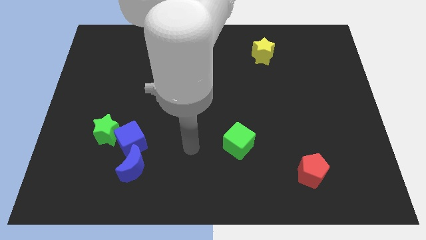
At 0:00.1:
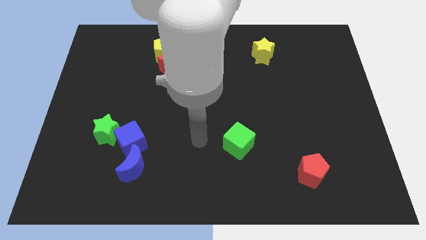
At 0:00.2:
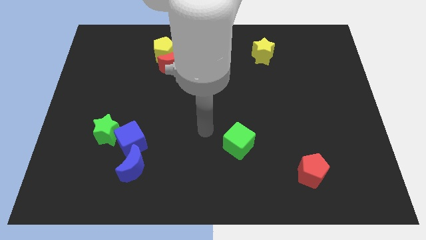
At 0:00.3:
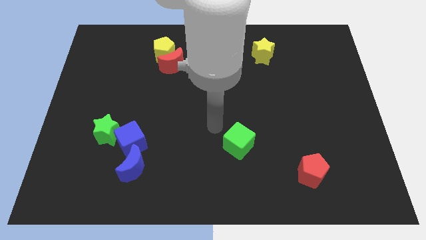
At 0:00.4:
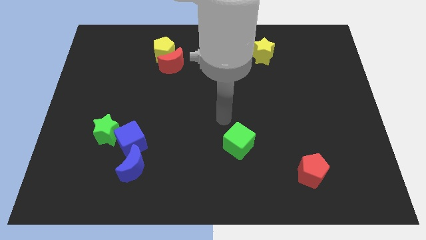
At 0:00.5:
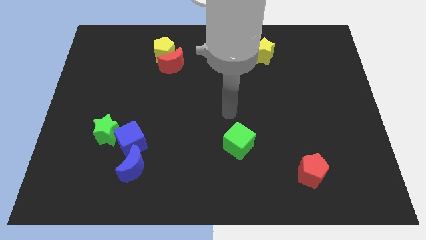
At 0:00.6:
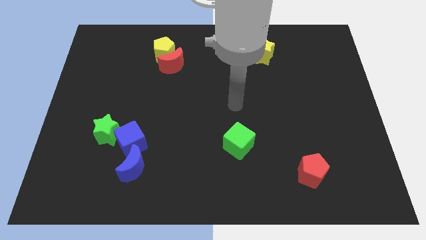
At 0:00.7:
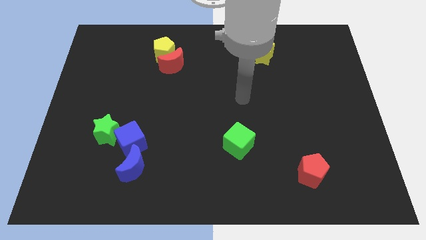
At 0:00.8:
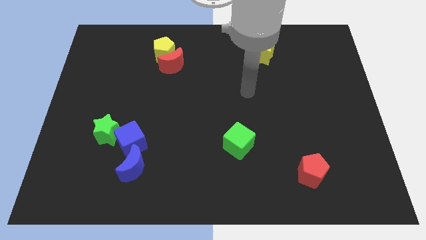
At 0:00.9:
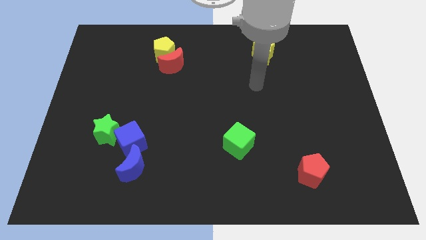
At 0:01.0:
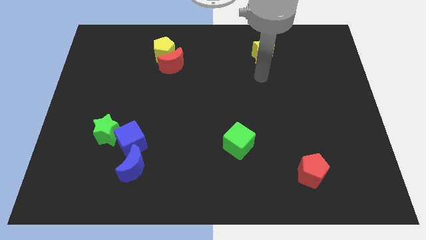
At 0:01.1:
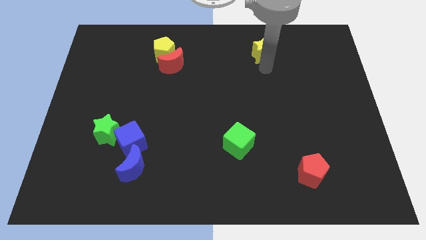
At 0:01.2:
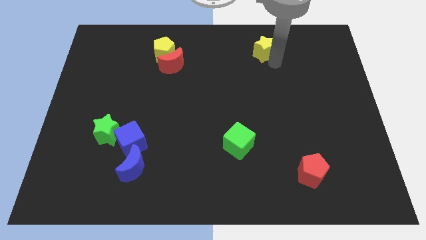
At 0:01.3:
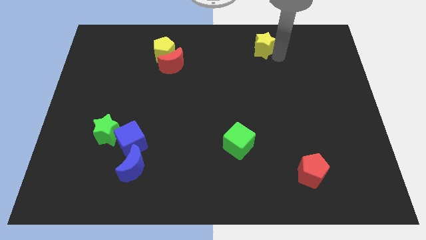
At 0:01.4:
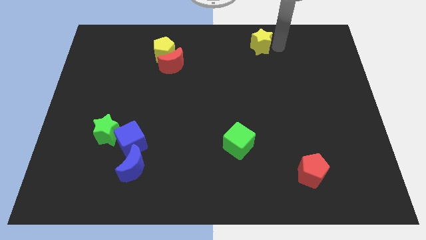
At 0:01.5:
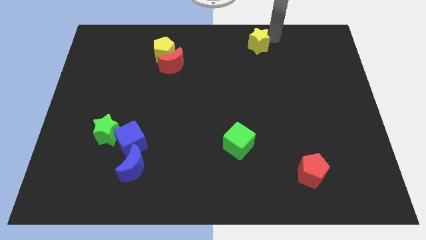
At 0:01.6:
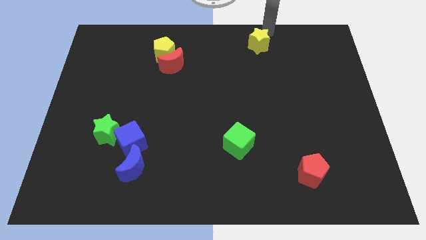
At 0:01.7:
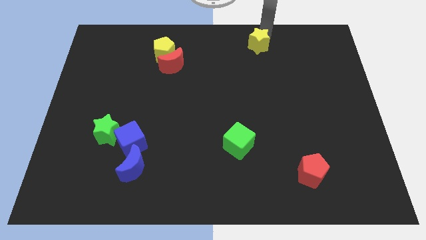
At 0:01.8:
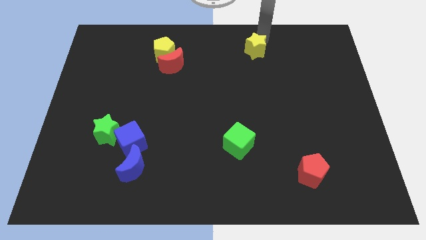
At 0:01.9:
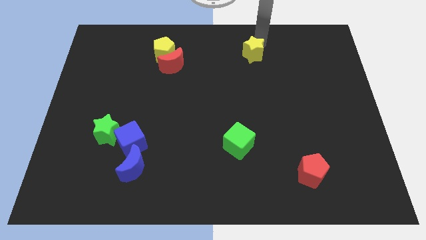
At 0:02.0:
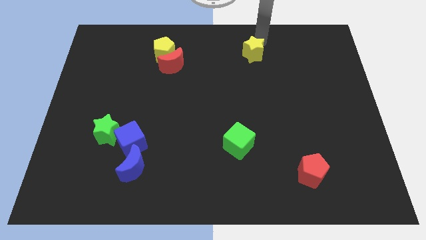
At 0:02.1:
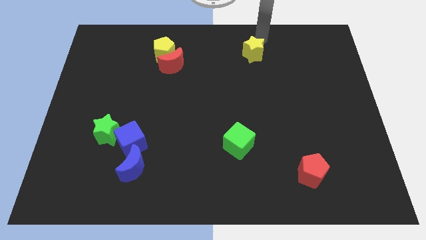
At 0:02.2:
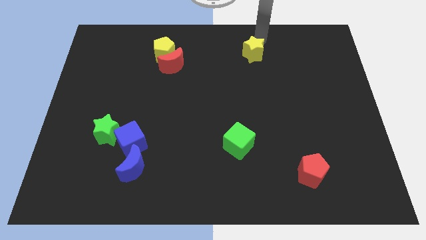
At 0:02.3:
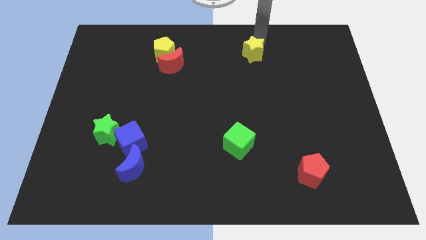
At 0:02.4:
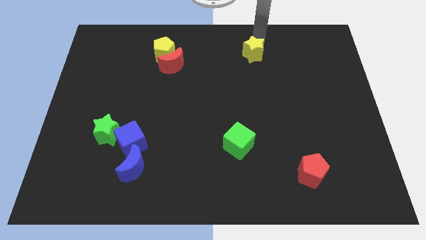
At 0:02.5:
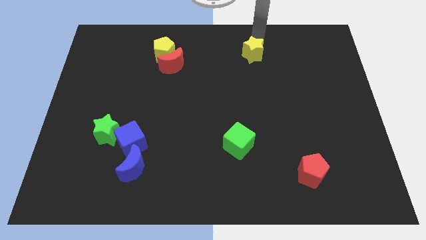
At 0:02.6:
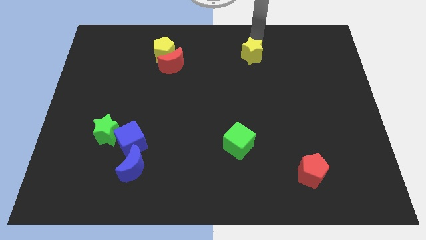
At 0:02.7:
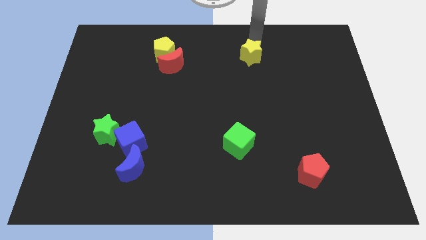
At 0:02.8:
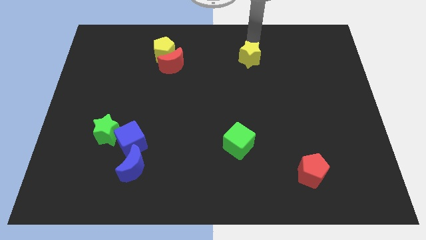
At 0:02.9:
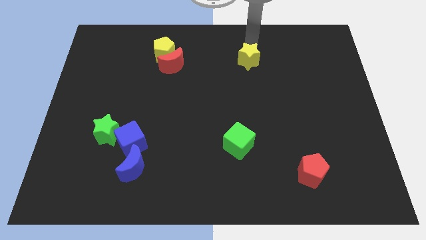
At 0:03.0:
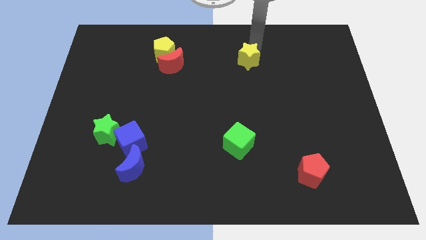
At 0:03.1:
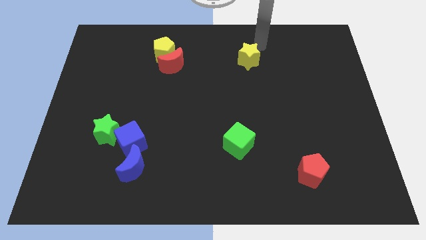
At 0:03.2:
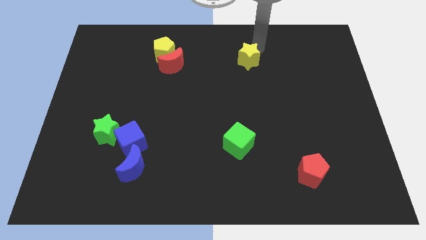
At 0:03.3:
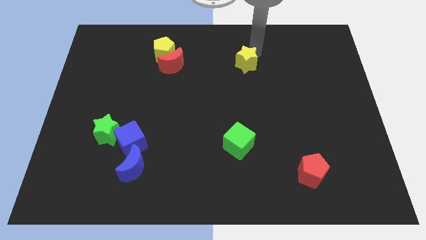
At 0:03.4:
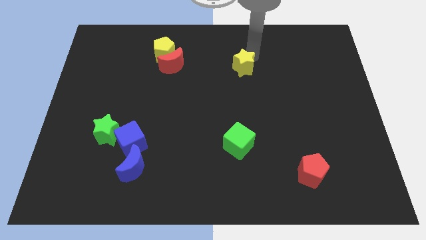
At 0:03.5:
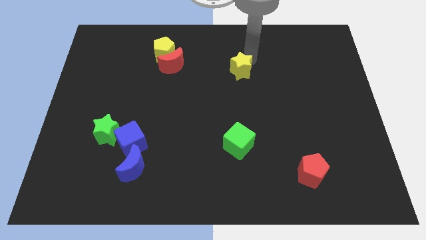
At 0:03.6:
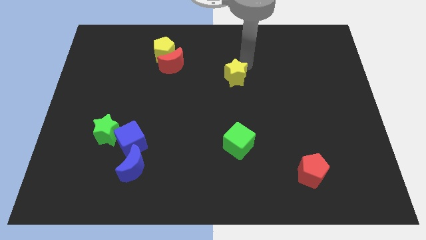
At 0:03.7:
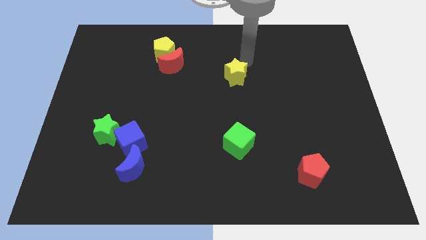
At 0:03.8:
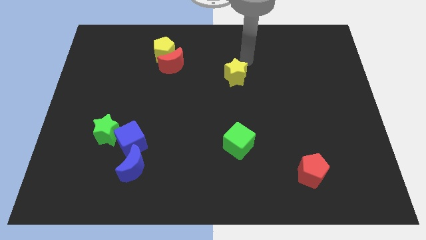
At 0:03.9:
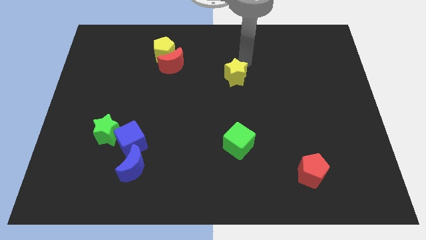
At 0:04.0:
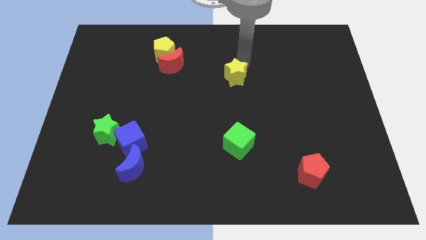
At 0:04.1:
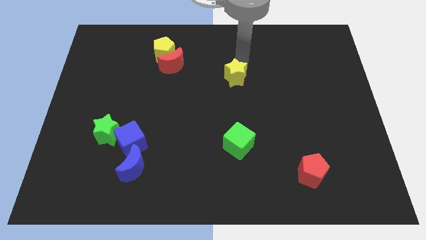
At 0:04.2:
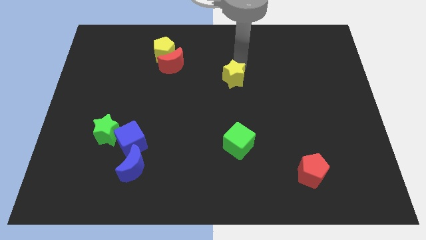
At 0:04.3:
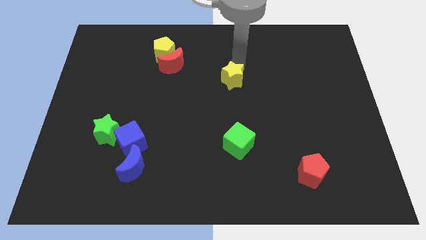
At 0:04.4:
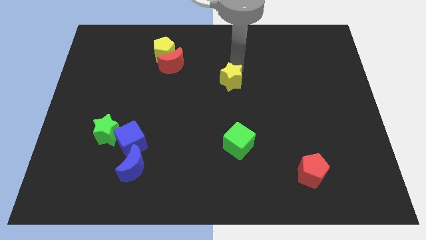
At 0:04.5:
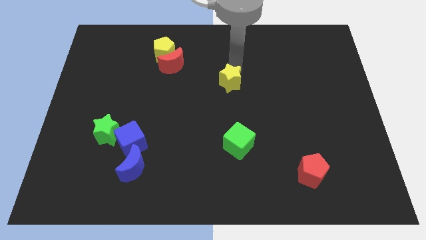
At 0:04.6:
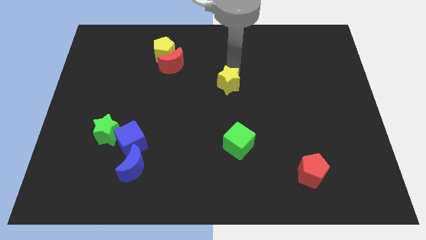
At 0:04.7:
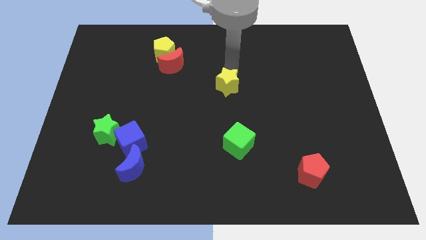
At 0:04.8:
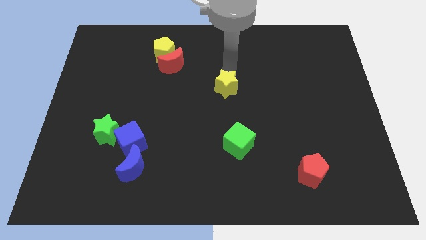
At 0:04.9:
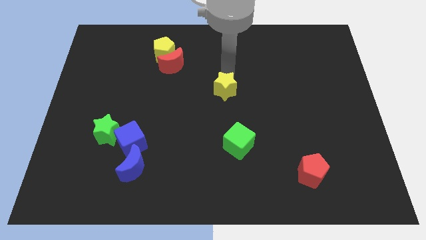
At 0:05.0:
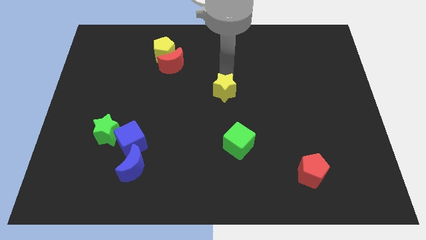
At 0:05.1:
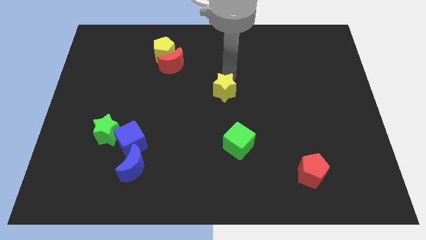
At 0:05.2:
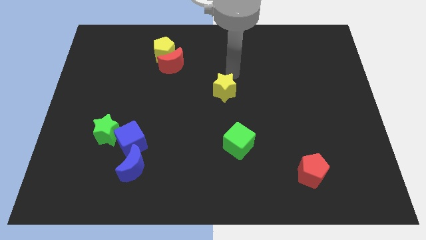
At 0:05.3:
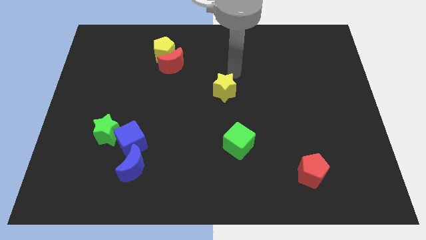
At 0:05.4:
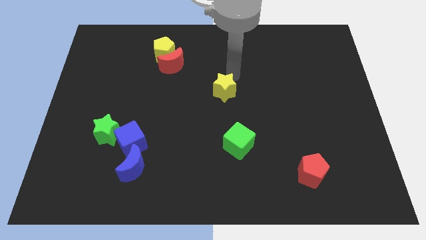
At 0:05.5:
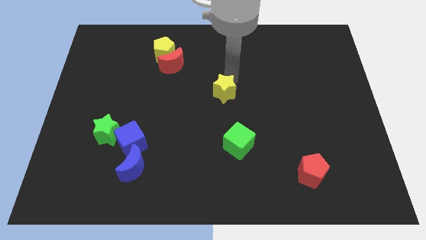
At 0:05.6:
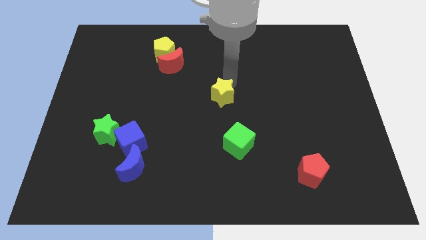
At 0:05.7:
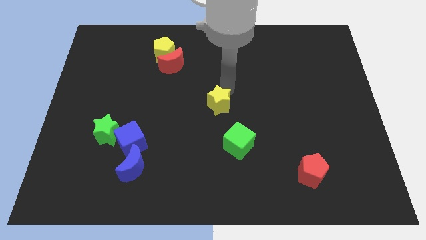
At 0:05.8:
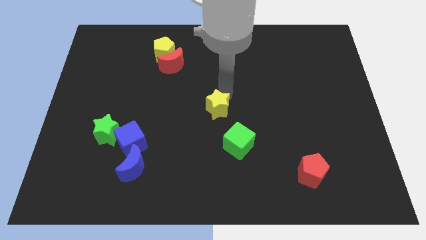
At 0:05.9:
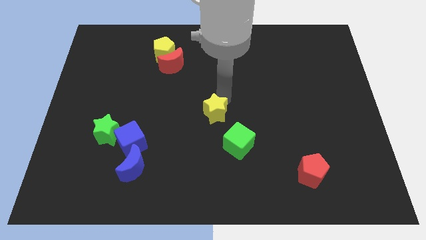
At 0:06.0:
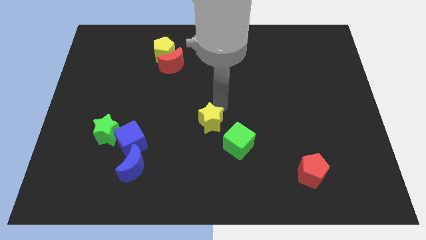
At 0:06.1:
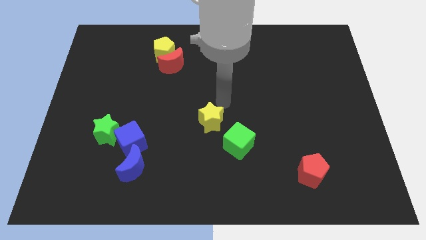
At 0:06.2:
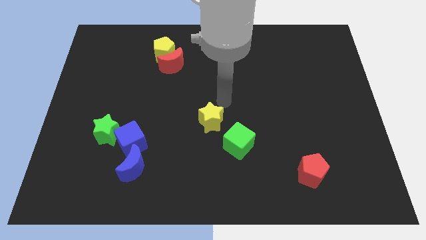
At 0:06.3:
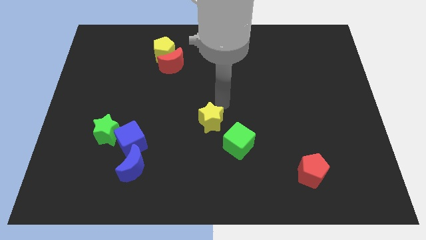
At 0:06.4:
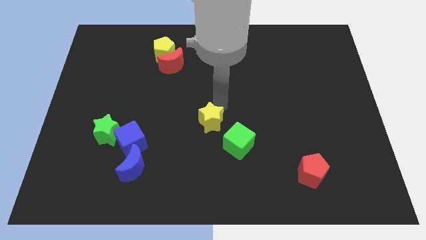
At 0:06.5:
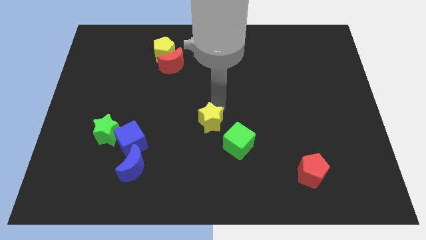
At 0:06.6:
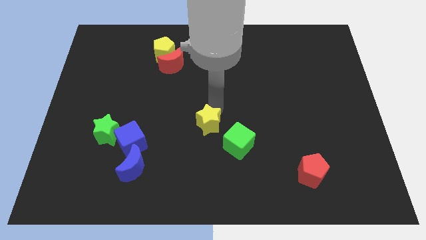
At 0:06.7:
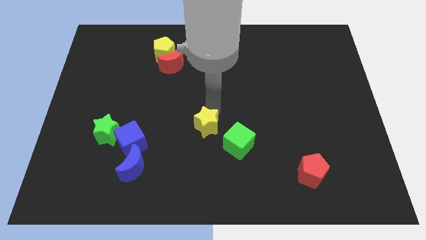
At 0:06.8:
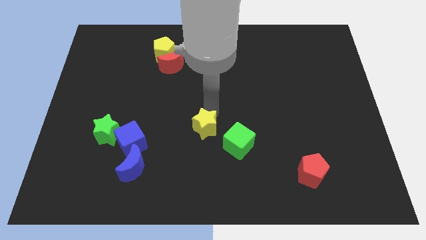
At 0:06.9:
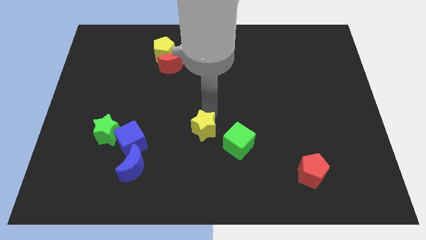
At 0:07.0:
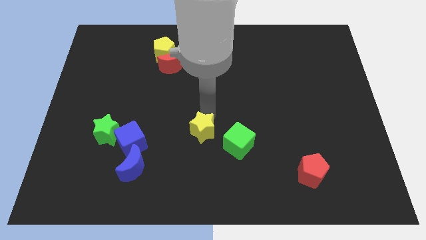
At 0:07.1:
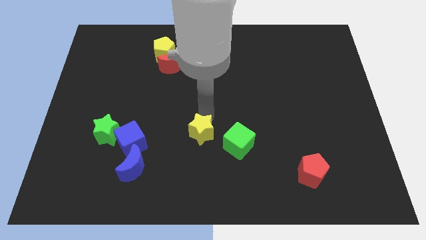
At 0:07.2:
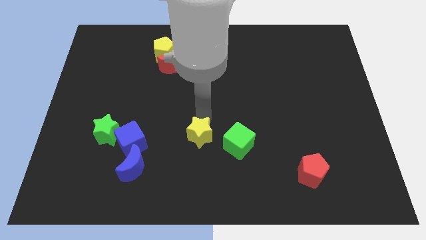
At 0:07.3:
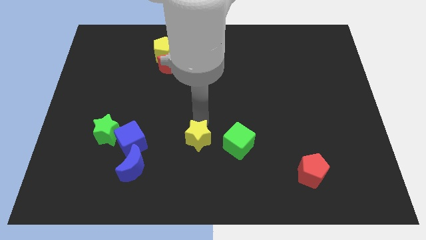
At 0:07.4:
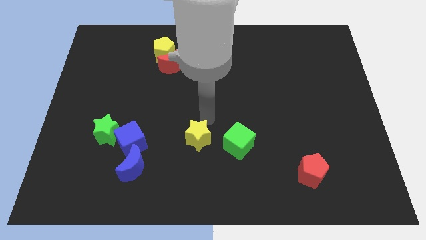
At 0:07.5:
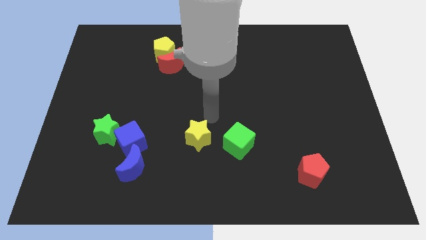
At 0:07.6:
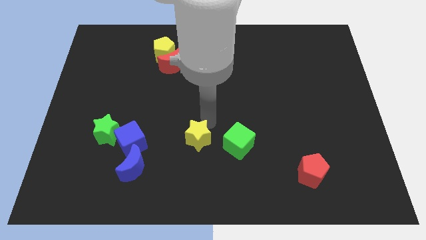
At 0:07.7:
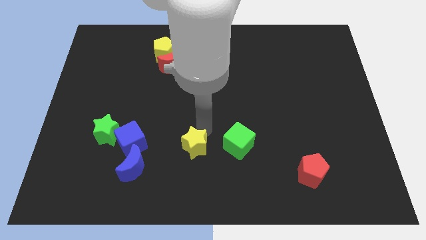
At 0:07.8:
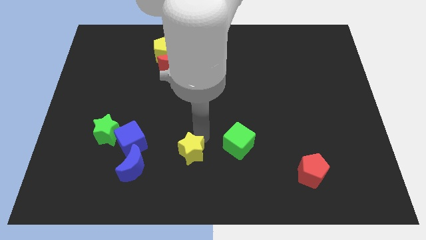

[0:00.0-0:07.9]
push the yellow star to the right of the blue moon
